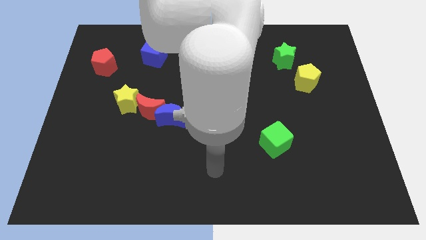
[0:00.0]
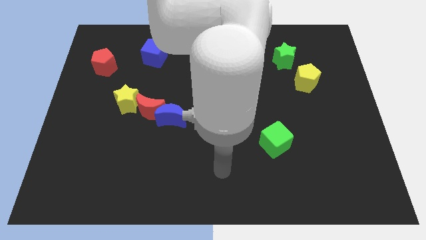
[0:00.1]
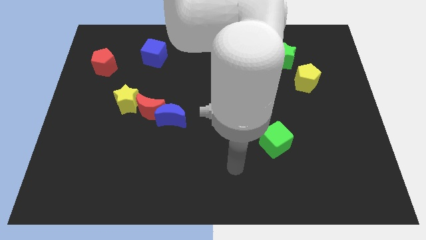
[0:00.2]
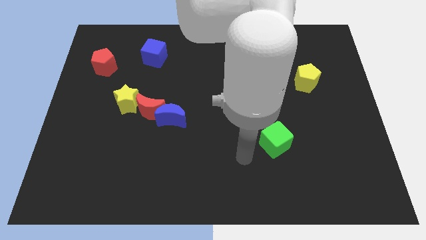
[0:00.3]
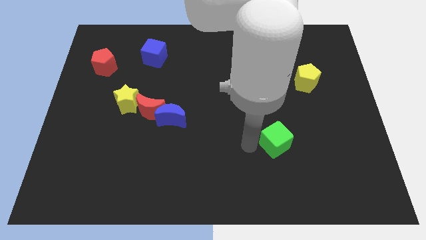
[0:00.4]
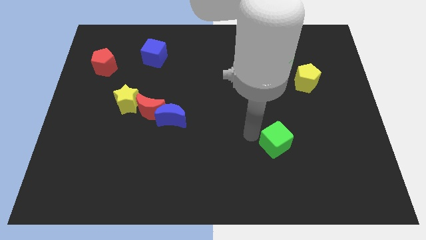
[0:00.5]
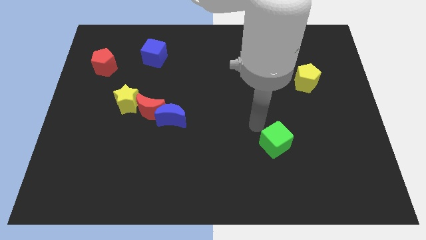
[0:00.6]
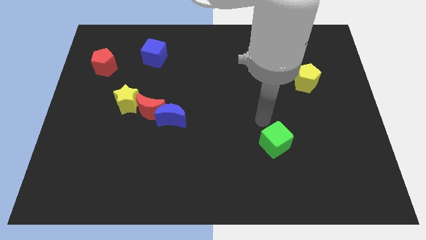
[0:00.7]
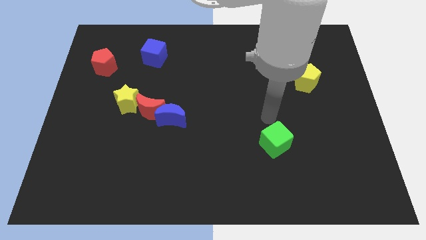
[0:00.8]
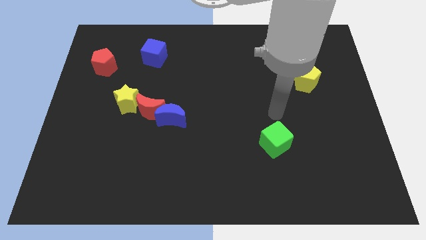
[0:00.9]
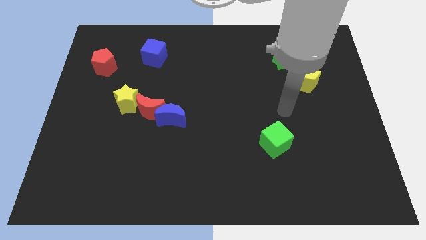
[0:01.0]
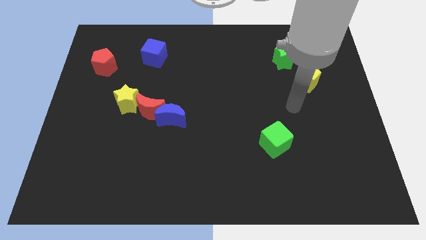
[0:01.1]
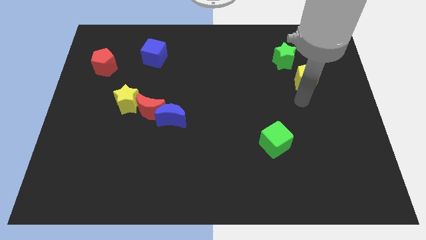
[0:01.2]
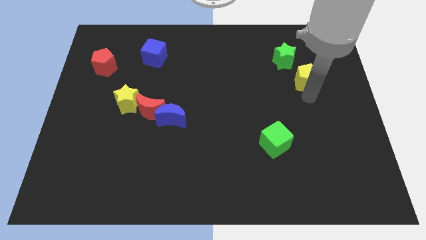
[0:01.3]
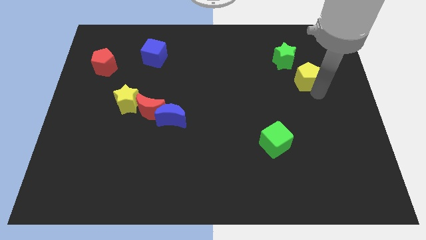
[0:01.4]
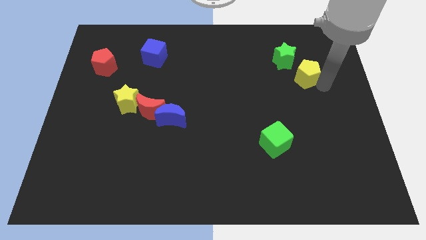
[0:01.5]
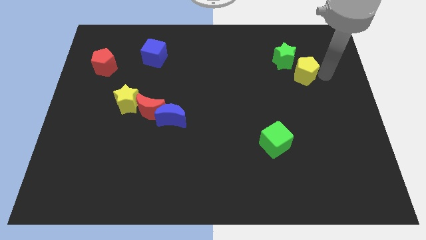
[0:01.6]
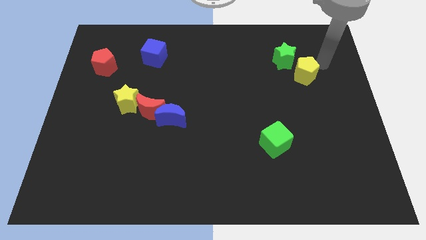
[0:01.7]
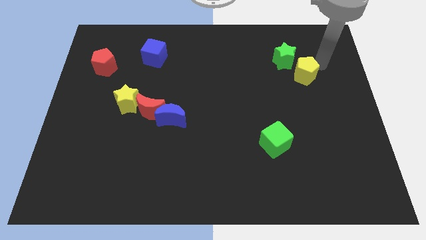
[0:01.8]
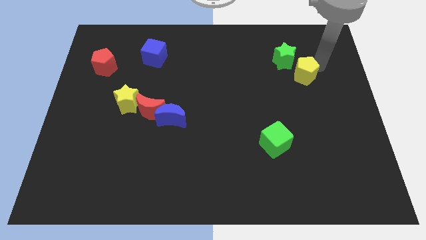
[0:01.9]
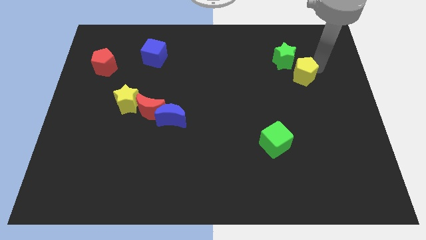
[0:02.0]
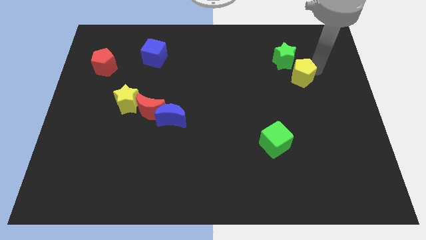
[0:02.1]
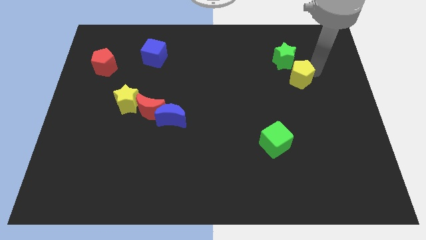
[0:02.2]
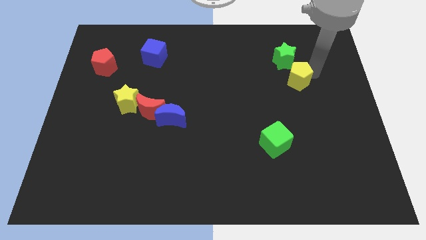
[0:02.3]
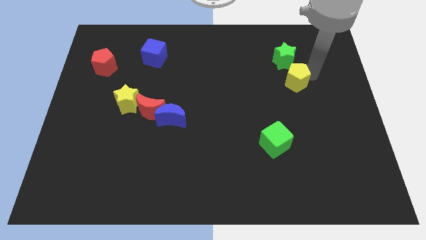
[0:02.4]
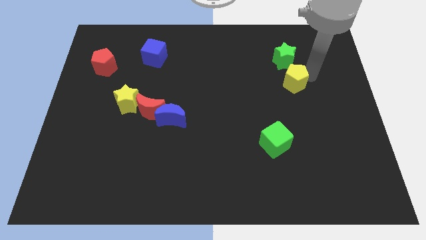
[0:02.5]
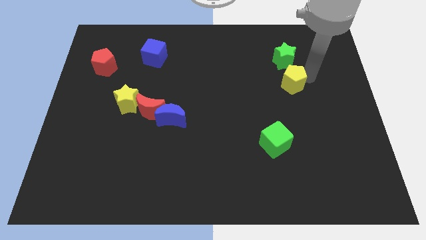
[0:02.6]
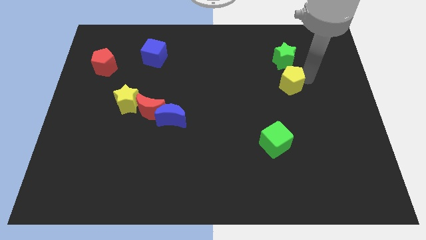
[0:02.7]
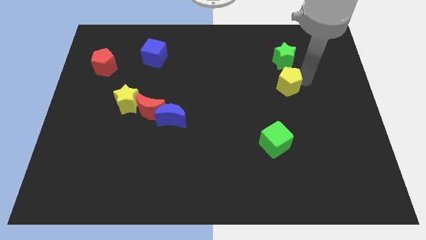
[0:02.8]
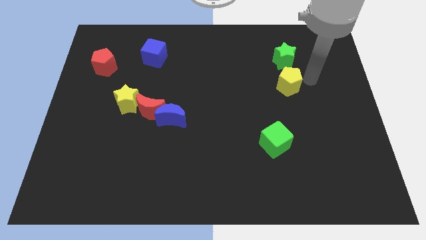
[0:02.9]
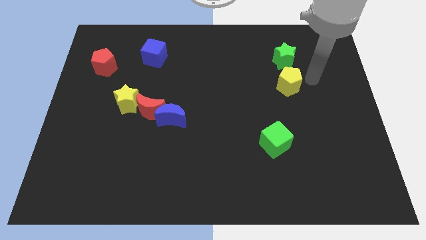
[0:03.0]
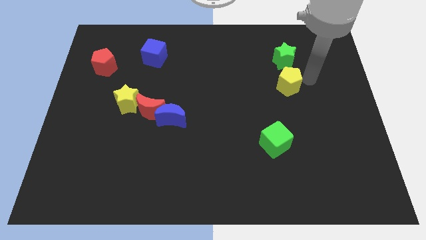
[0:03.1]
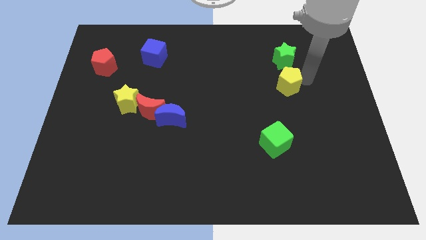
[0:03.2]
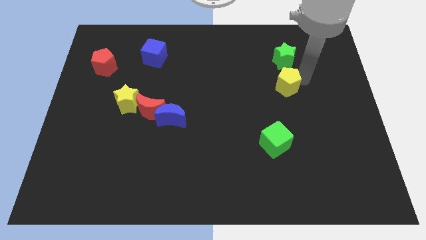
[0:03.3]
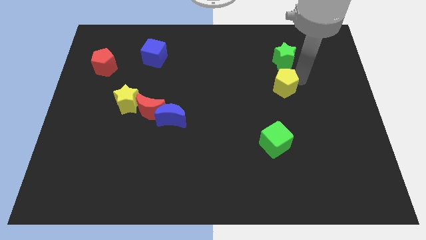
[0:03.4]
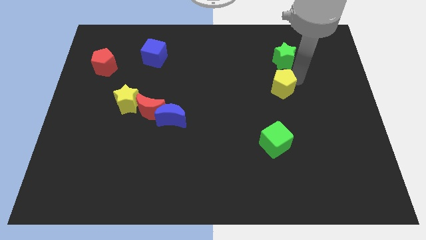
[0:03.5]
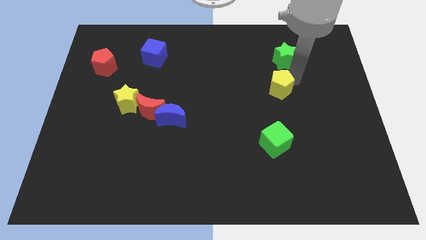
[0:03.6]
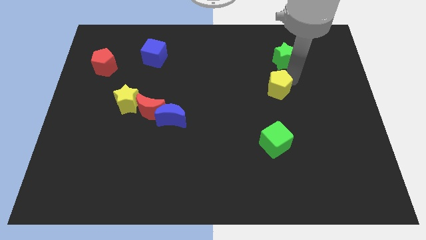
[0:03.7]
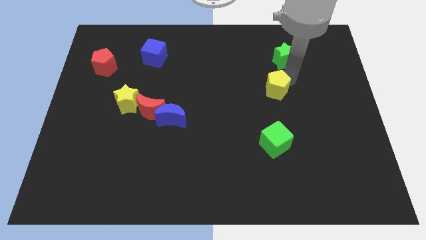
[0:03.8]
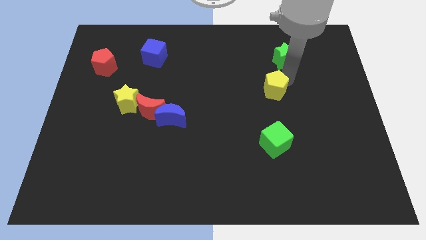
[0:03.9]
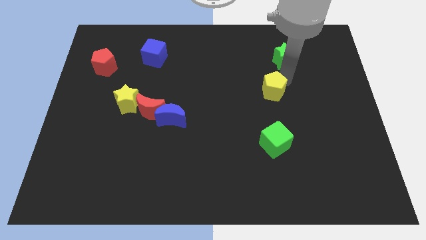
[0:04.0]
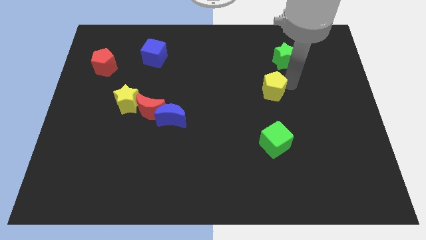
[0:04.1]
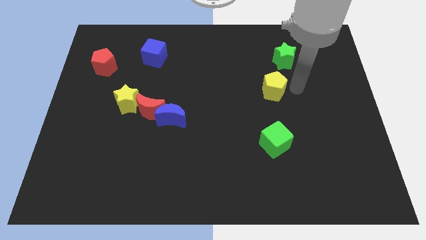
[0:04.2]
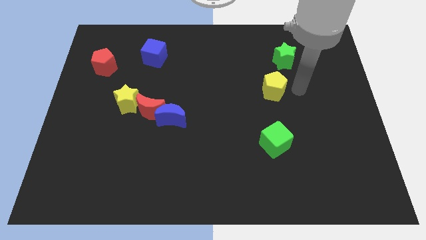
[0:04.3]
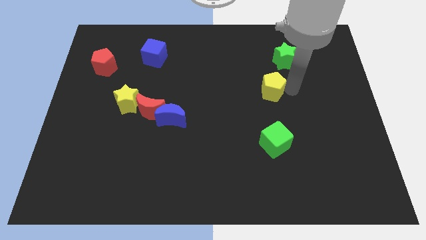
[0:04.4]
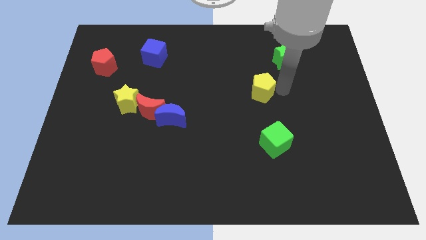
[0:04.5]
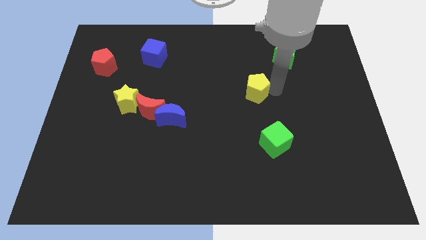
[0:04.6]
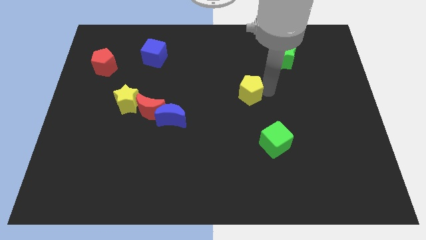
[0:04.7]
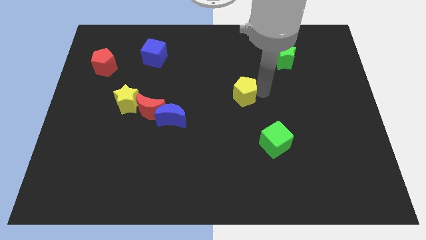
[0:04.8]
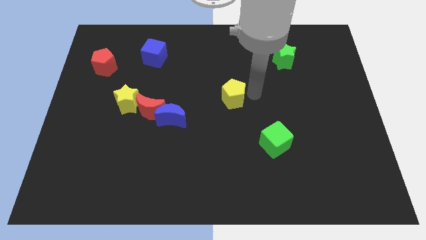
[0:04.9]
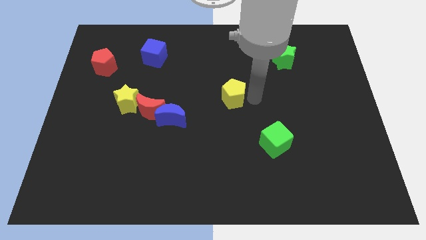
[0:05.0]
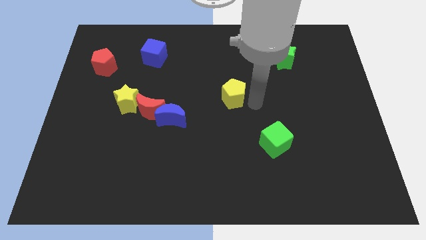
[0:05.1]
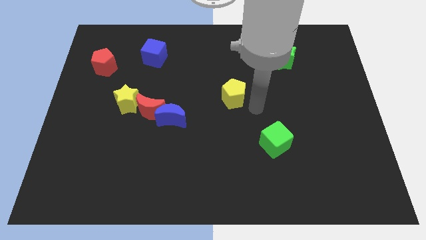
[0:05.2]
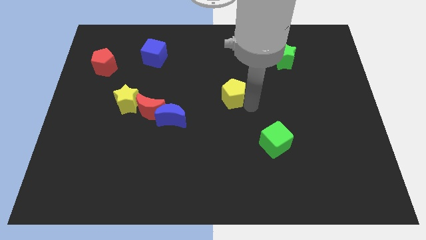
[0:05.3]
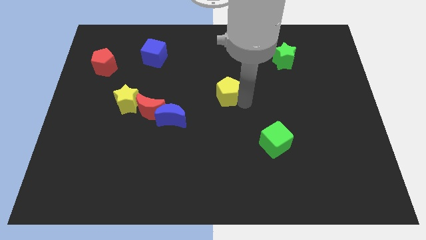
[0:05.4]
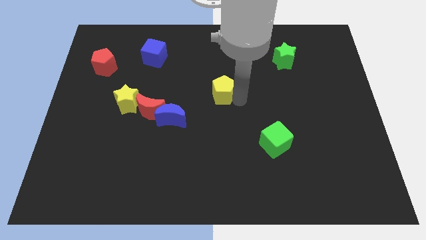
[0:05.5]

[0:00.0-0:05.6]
move the yellow pentagon to the left

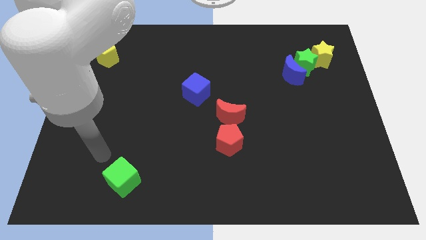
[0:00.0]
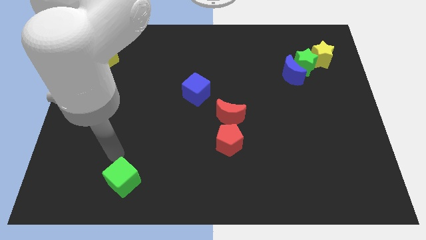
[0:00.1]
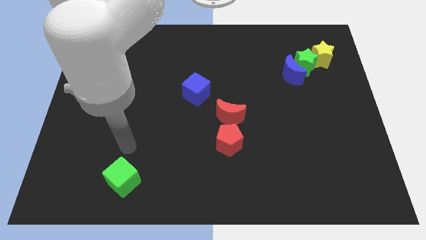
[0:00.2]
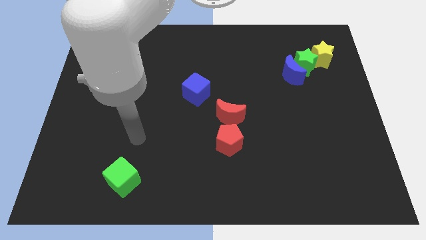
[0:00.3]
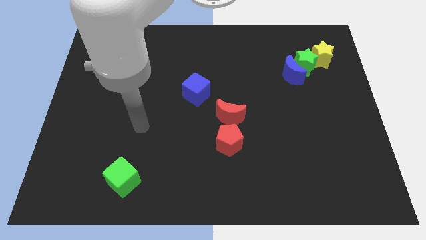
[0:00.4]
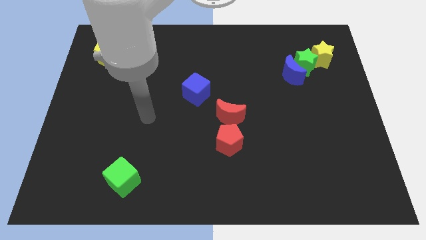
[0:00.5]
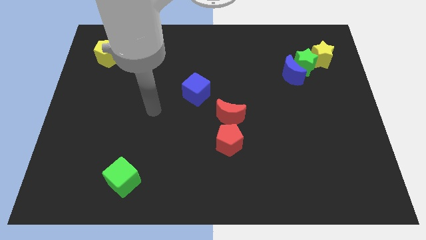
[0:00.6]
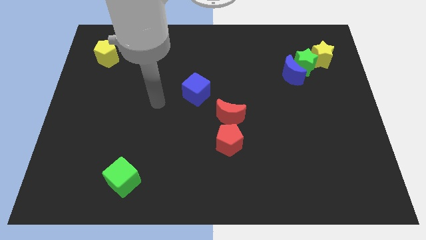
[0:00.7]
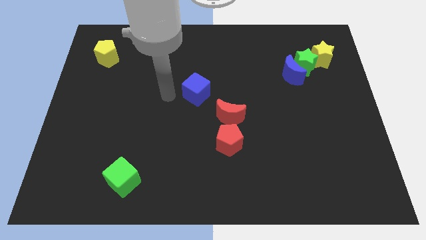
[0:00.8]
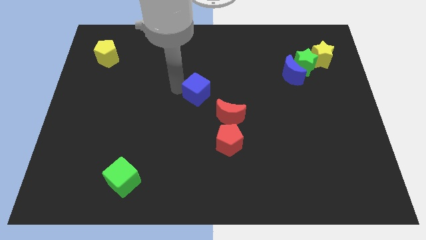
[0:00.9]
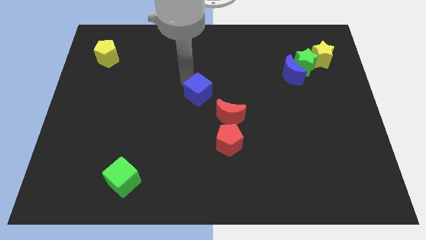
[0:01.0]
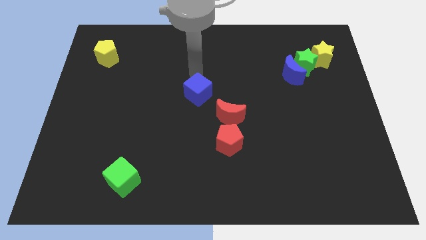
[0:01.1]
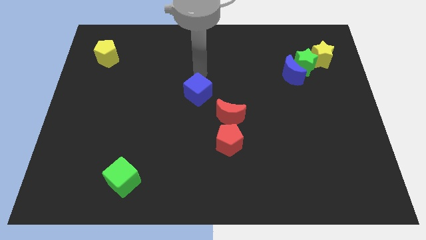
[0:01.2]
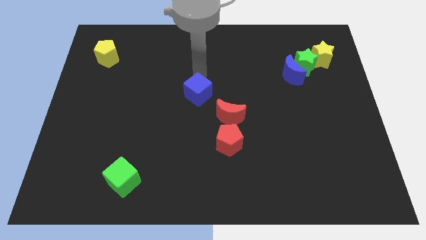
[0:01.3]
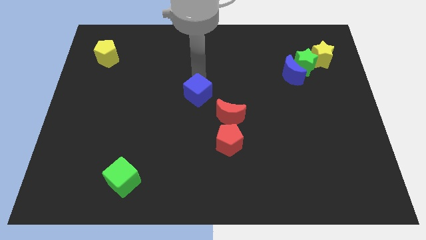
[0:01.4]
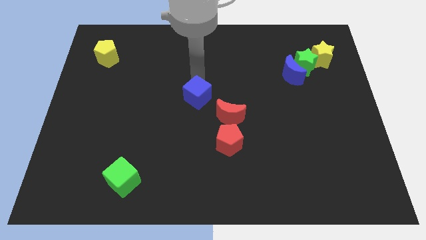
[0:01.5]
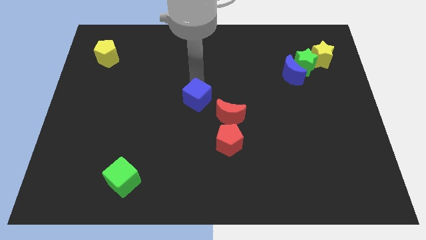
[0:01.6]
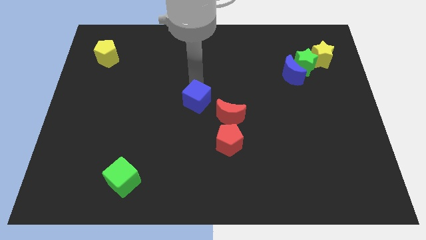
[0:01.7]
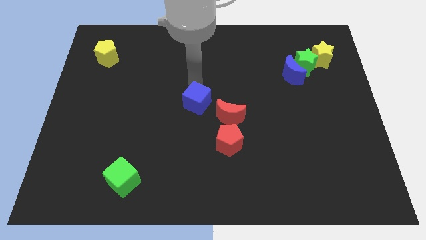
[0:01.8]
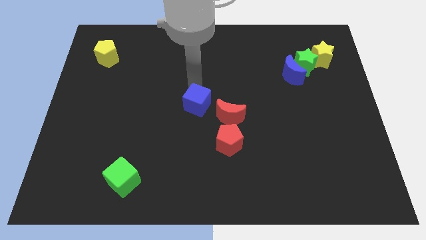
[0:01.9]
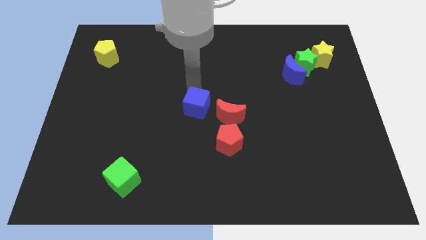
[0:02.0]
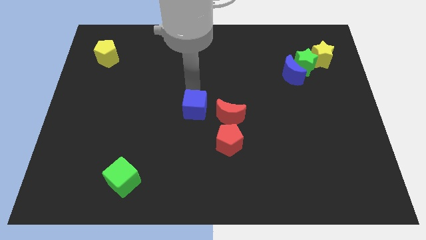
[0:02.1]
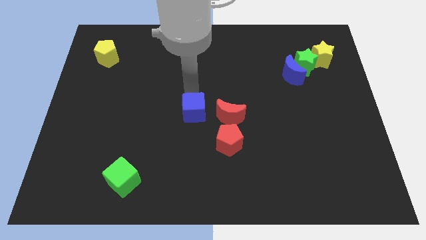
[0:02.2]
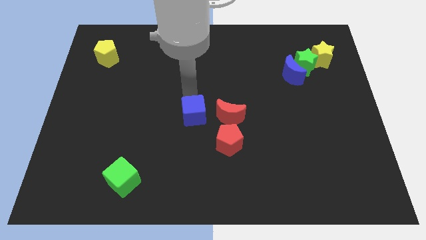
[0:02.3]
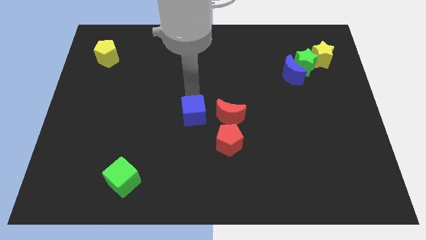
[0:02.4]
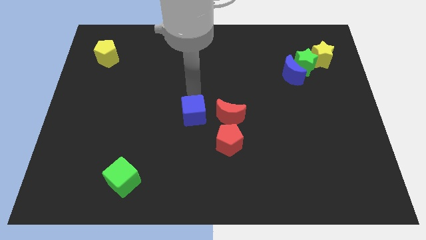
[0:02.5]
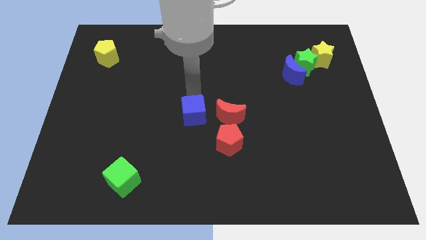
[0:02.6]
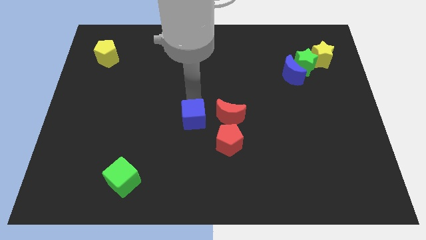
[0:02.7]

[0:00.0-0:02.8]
slightly slide the blue cube down
